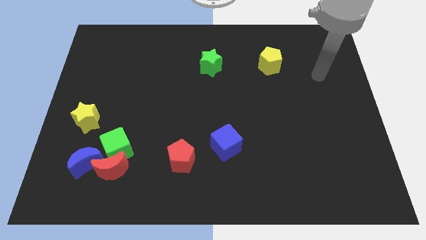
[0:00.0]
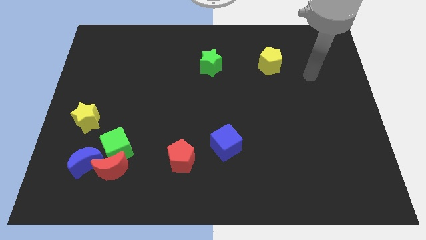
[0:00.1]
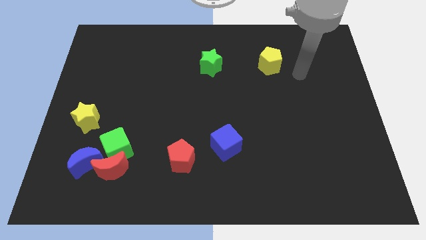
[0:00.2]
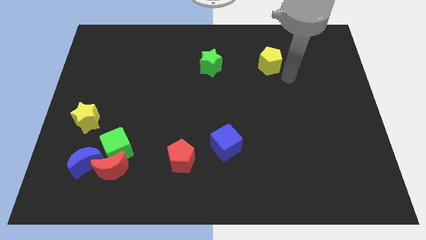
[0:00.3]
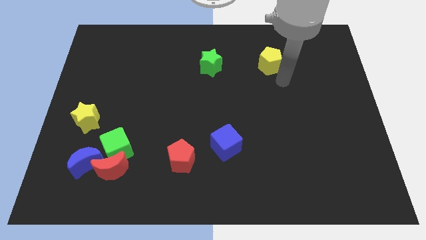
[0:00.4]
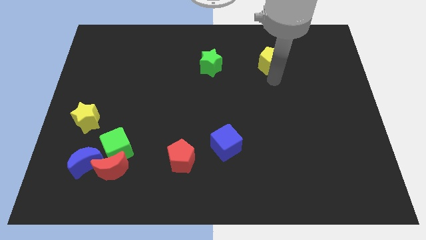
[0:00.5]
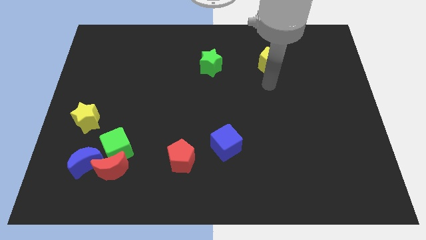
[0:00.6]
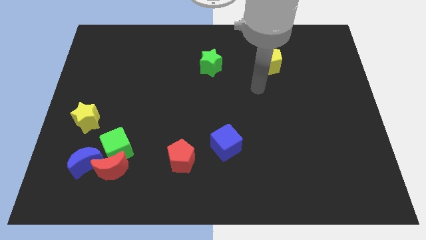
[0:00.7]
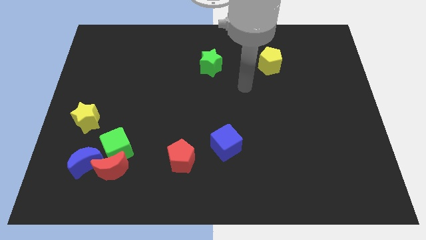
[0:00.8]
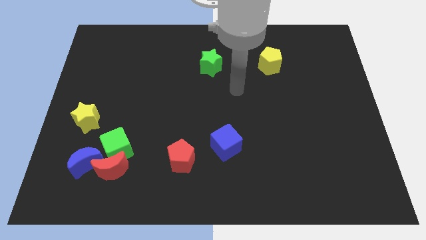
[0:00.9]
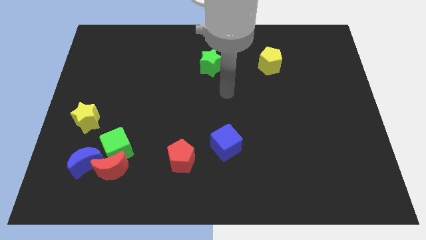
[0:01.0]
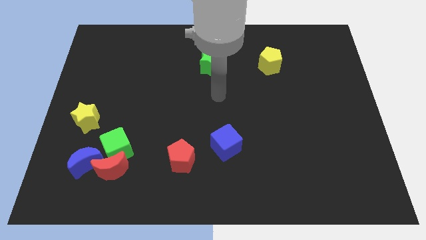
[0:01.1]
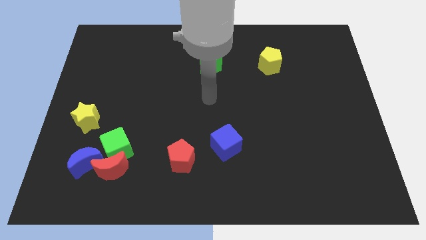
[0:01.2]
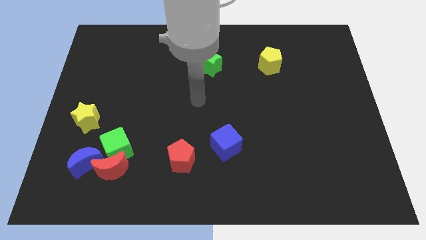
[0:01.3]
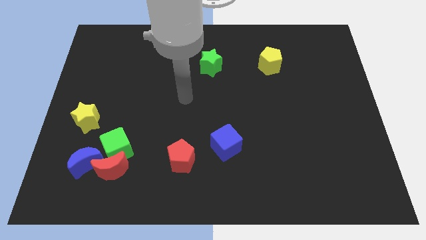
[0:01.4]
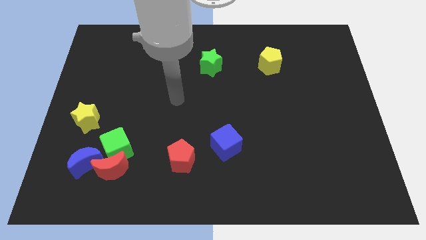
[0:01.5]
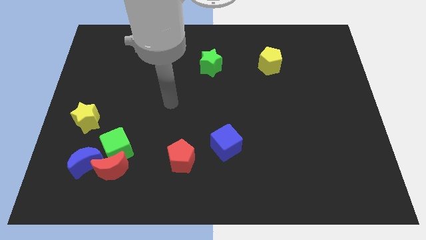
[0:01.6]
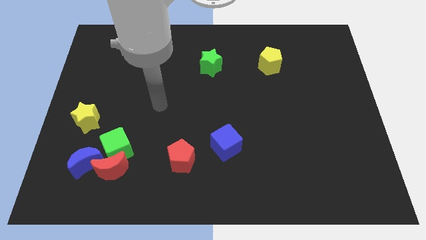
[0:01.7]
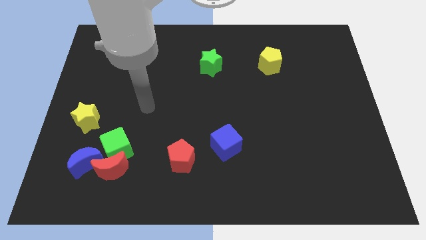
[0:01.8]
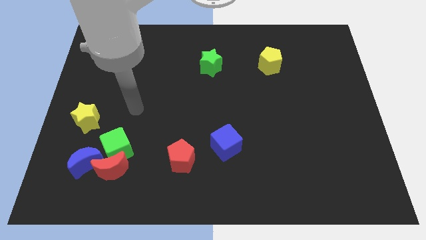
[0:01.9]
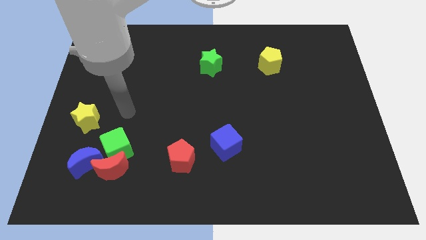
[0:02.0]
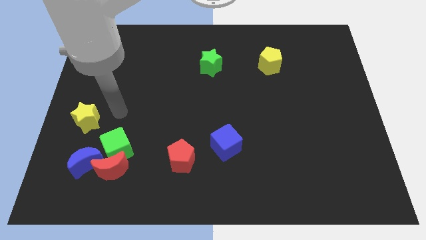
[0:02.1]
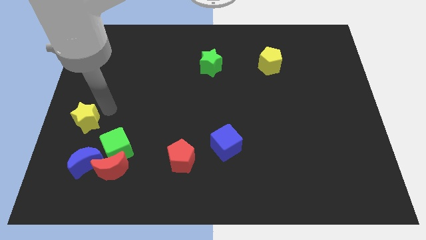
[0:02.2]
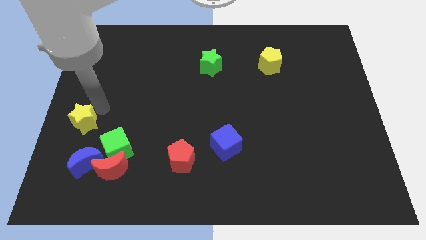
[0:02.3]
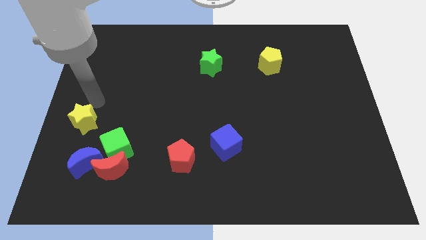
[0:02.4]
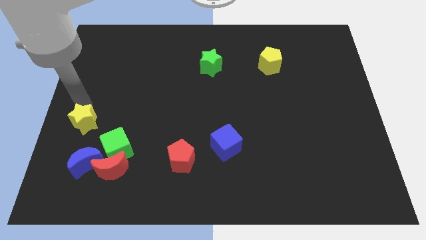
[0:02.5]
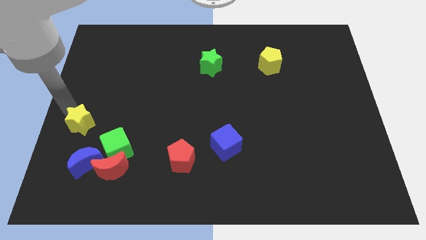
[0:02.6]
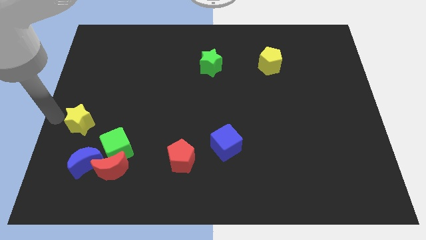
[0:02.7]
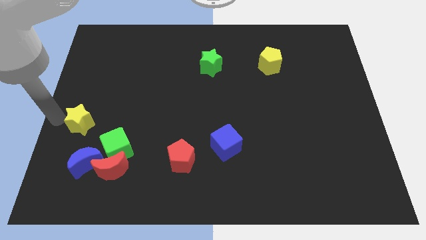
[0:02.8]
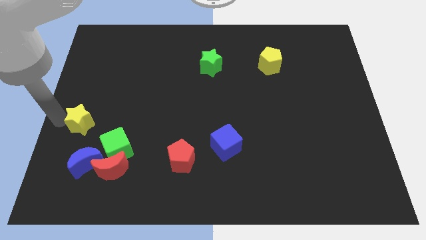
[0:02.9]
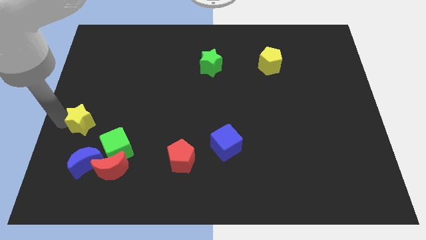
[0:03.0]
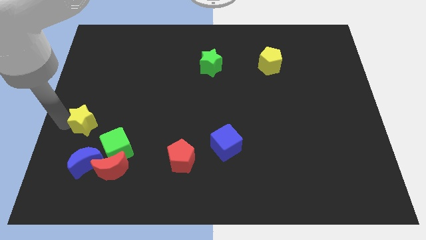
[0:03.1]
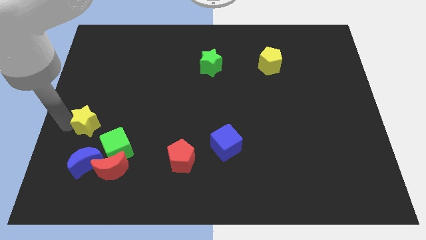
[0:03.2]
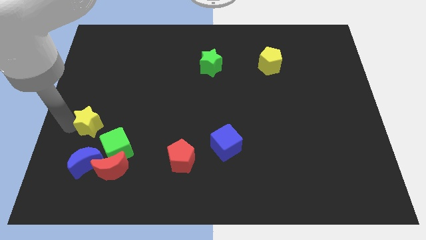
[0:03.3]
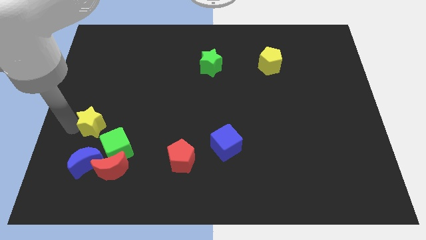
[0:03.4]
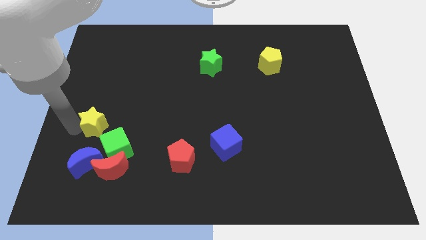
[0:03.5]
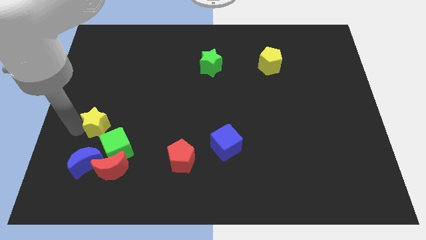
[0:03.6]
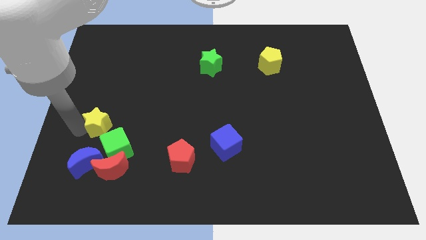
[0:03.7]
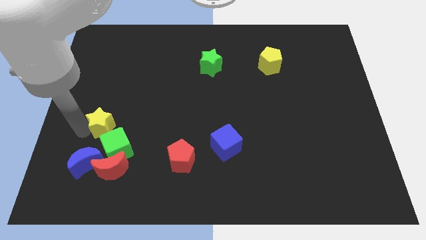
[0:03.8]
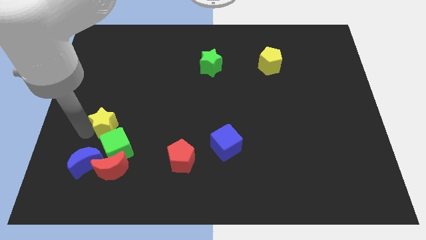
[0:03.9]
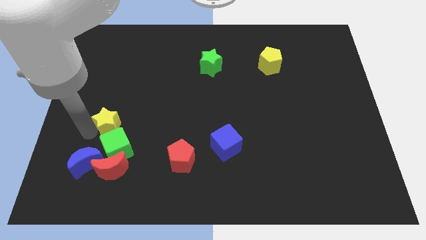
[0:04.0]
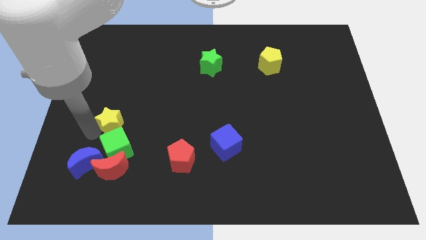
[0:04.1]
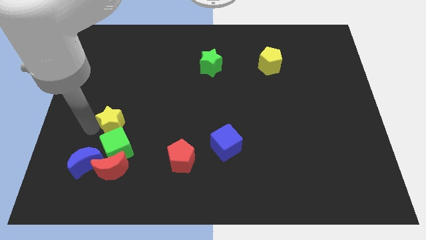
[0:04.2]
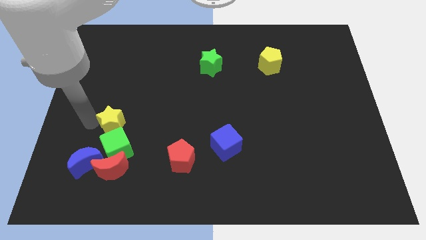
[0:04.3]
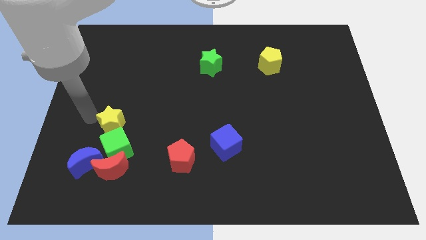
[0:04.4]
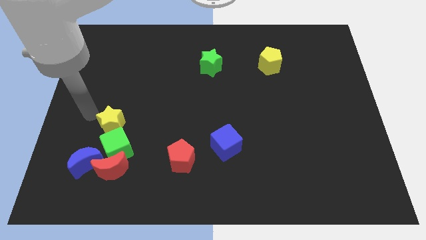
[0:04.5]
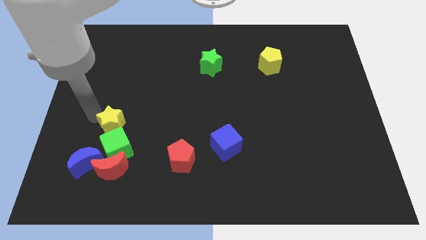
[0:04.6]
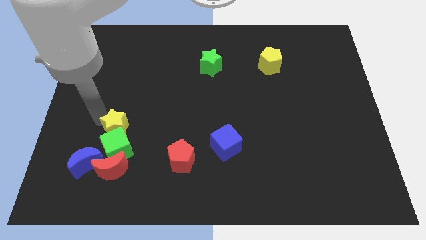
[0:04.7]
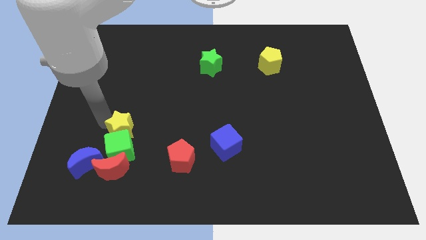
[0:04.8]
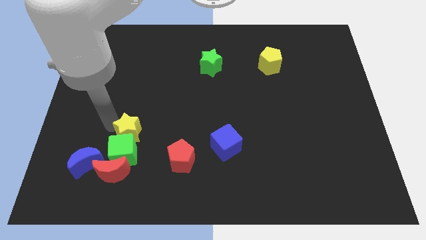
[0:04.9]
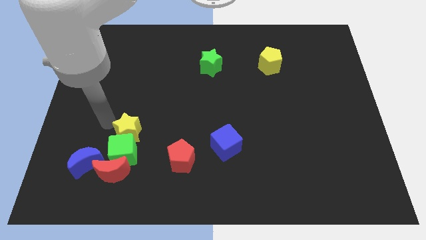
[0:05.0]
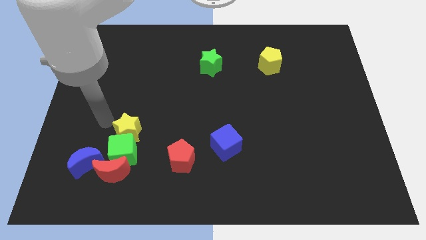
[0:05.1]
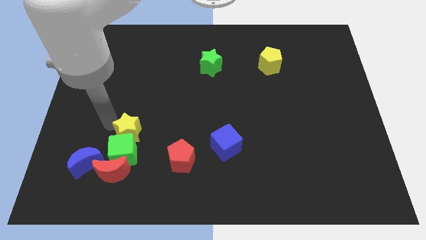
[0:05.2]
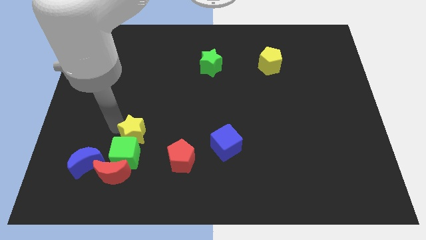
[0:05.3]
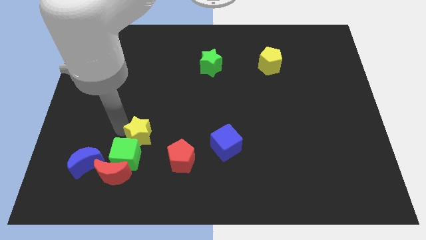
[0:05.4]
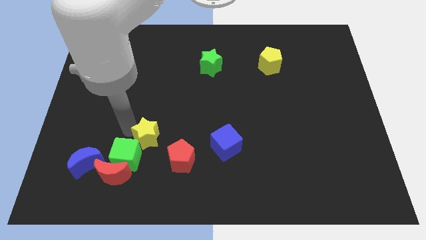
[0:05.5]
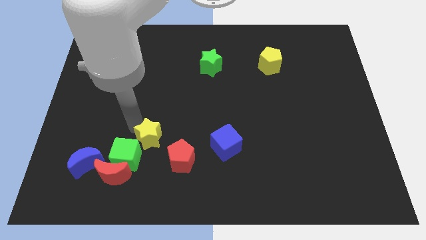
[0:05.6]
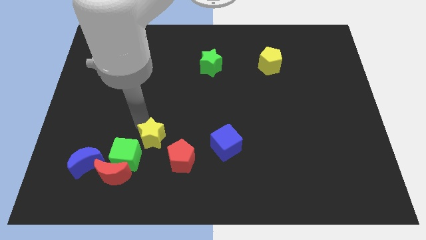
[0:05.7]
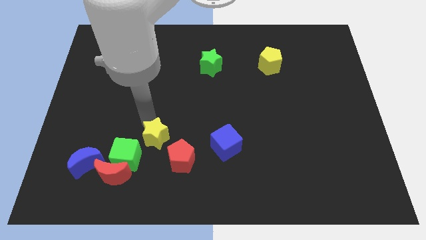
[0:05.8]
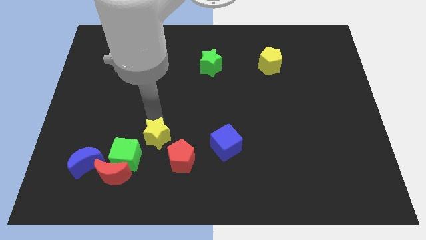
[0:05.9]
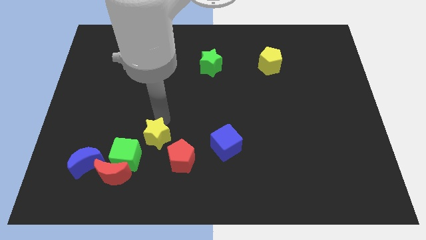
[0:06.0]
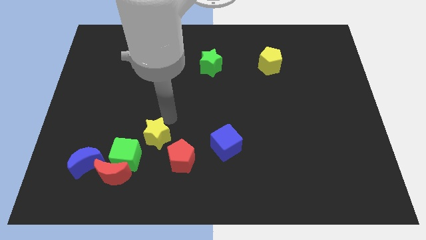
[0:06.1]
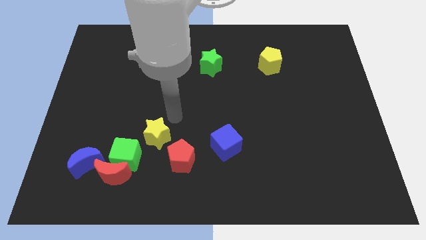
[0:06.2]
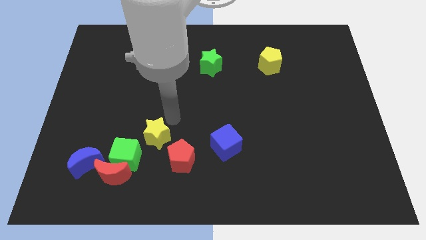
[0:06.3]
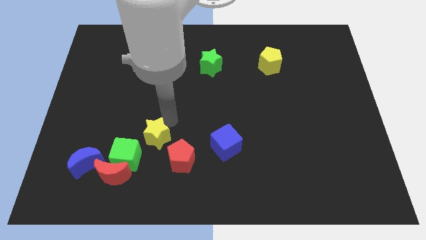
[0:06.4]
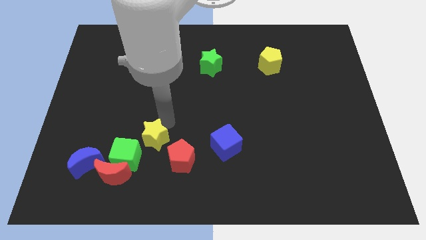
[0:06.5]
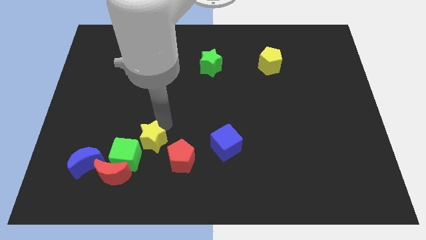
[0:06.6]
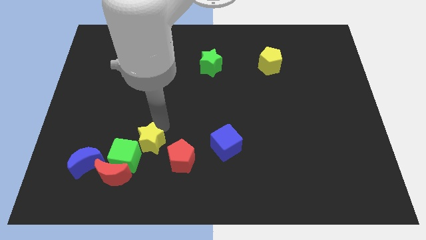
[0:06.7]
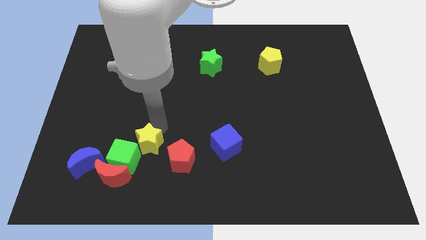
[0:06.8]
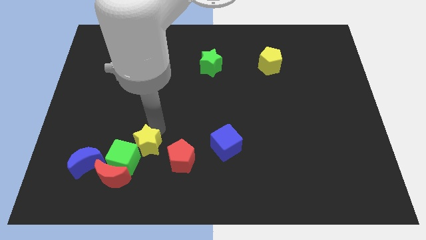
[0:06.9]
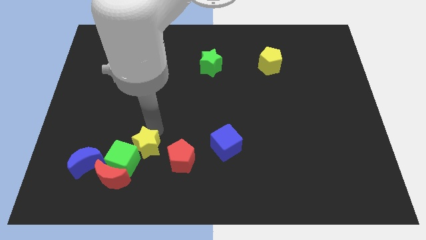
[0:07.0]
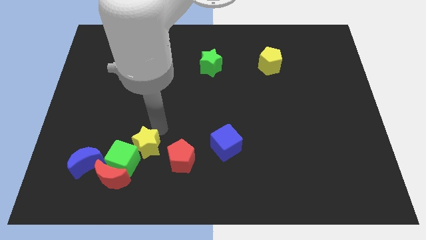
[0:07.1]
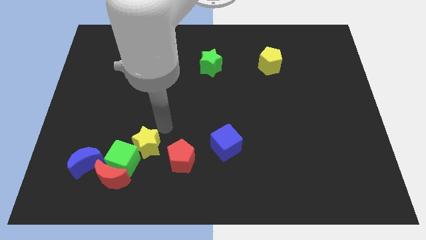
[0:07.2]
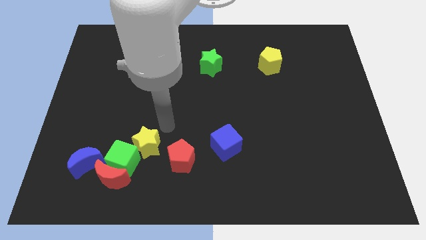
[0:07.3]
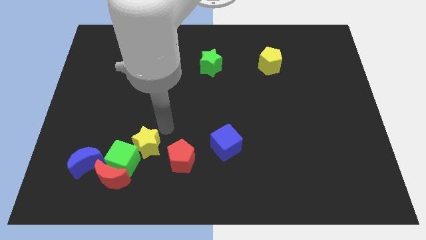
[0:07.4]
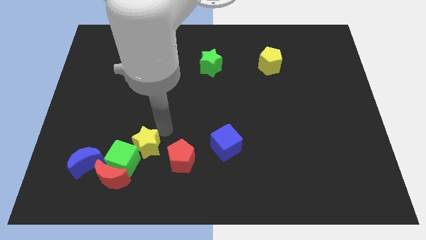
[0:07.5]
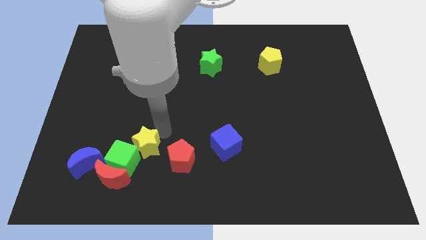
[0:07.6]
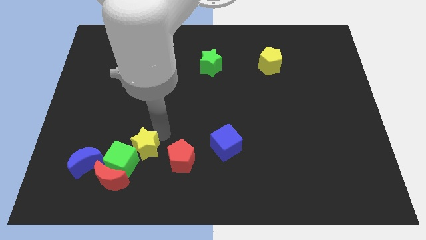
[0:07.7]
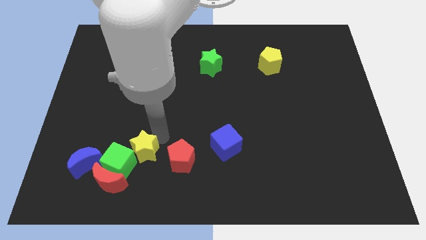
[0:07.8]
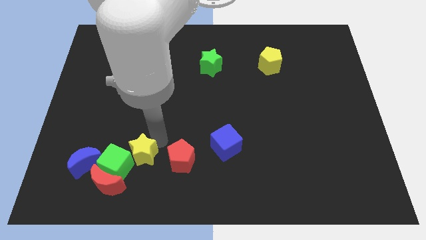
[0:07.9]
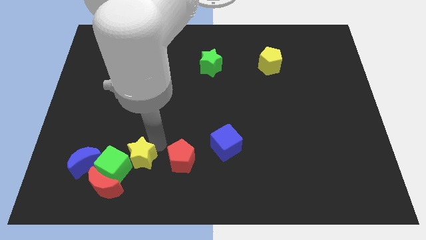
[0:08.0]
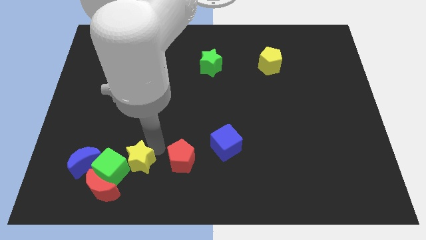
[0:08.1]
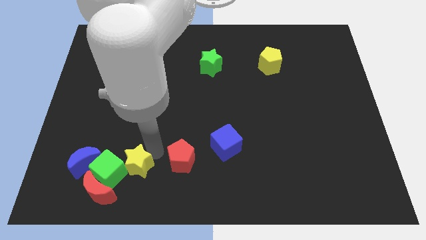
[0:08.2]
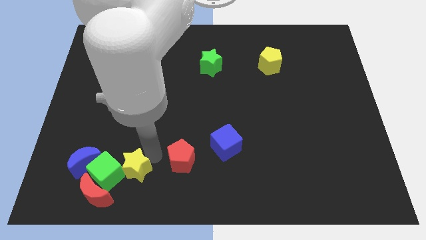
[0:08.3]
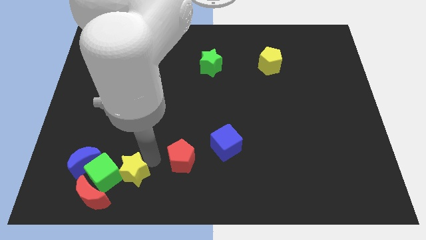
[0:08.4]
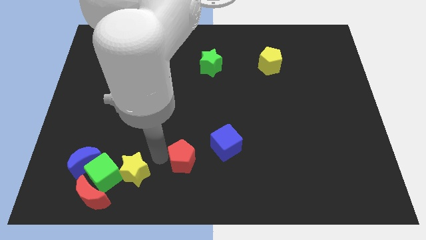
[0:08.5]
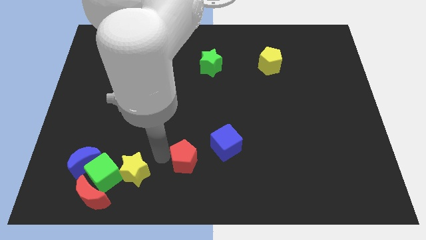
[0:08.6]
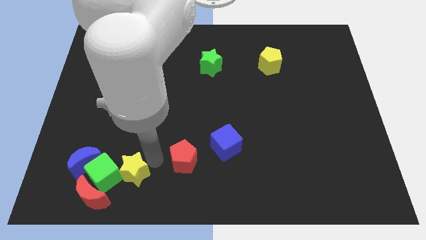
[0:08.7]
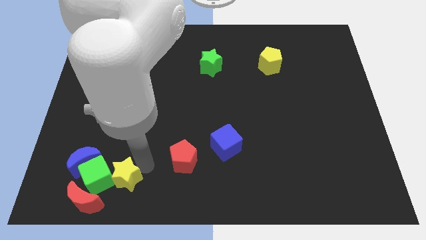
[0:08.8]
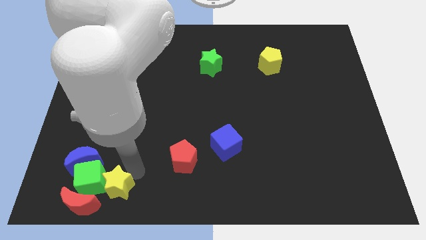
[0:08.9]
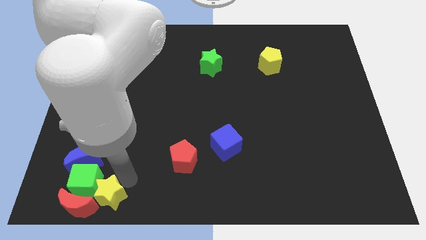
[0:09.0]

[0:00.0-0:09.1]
move the yellow star close to the red moon
